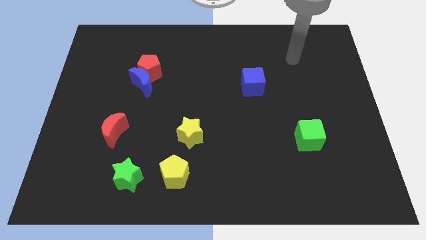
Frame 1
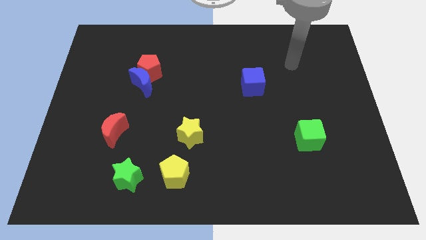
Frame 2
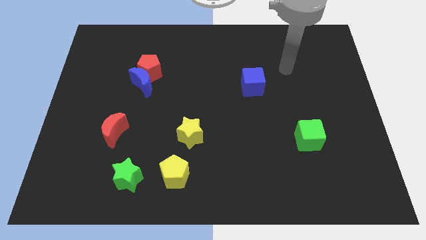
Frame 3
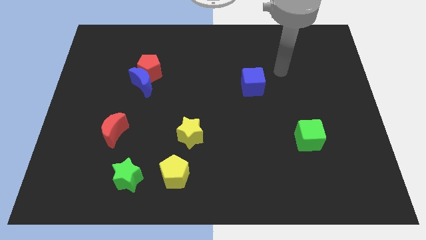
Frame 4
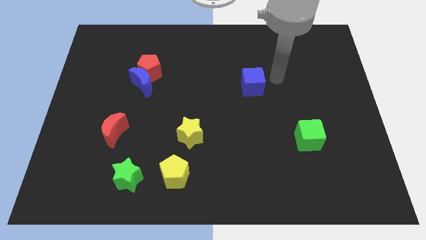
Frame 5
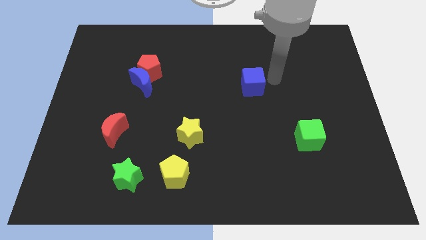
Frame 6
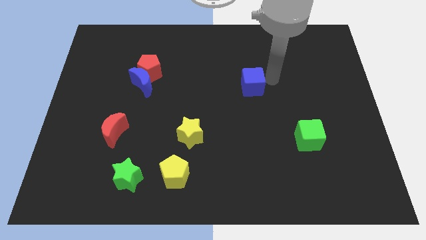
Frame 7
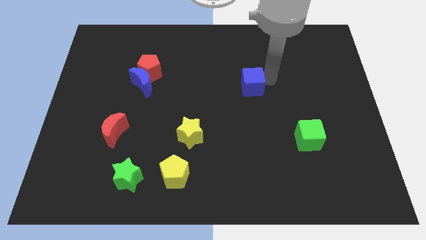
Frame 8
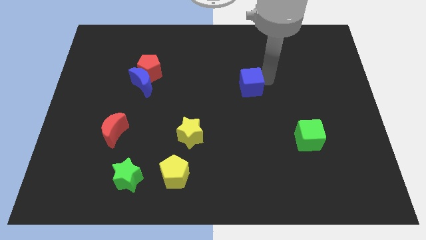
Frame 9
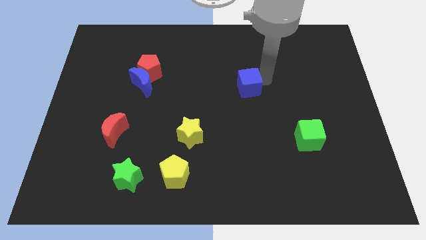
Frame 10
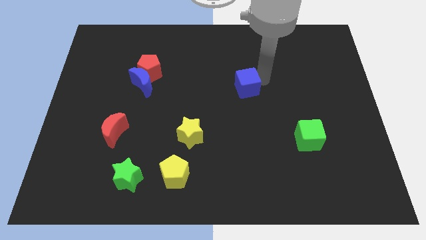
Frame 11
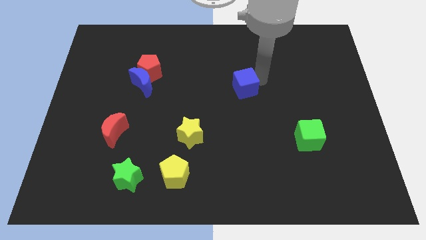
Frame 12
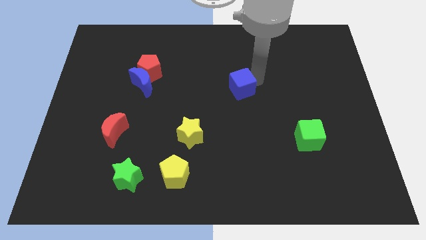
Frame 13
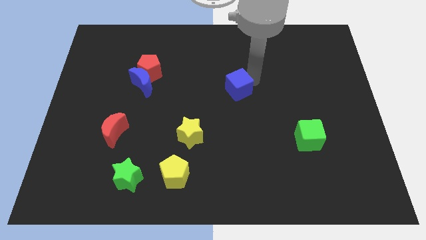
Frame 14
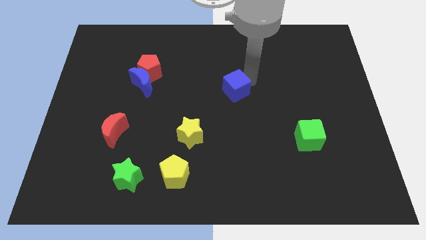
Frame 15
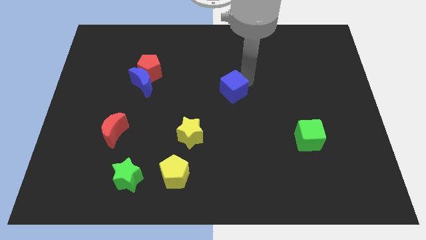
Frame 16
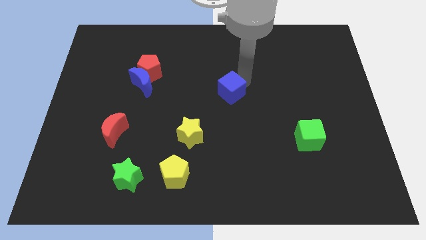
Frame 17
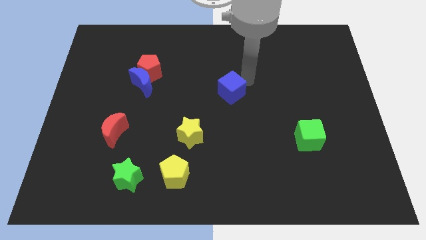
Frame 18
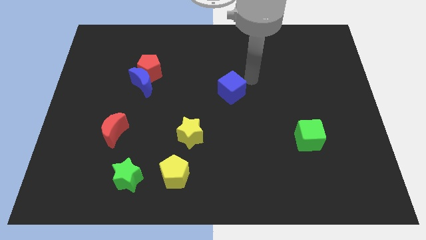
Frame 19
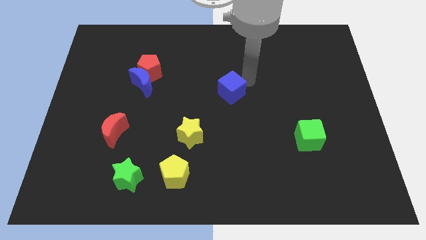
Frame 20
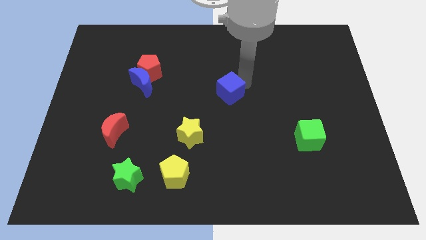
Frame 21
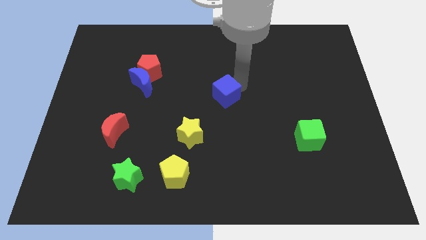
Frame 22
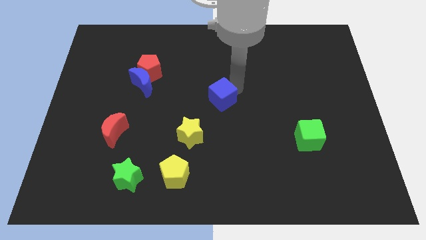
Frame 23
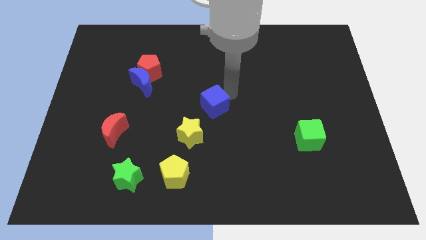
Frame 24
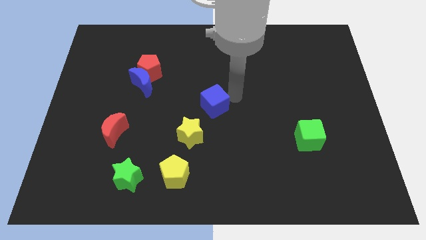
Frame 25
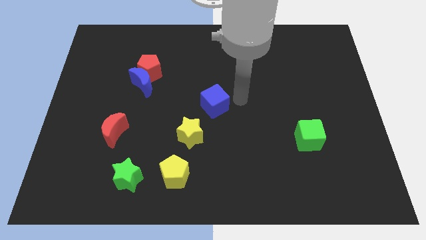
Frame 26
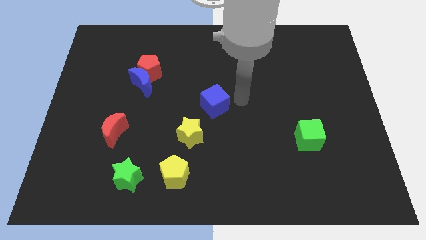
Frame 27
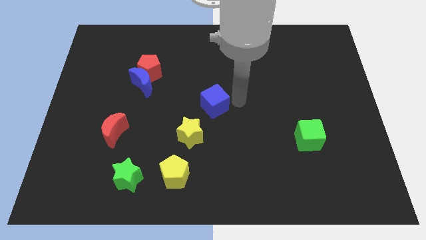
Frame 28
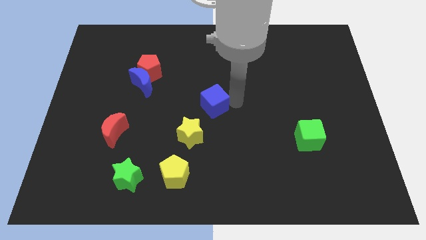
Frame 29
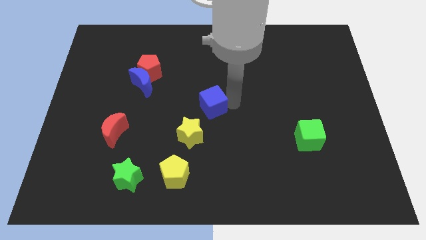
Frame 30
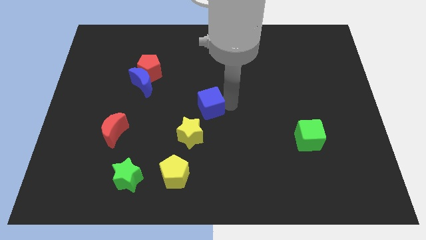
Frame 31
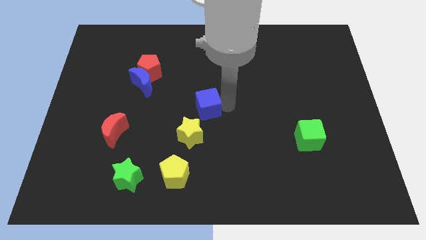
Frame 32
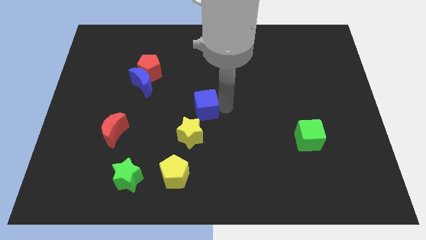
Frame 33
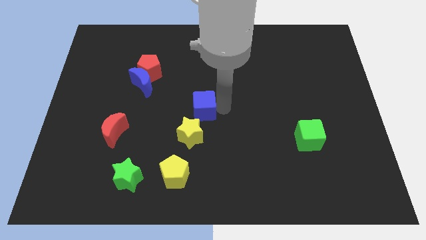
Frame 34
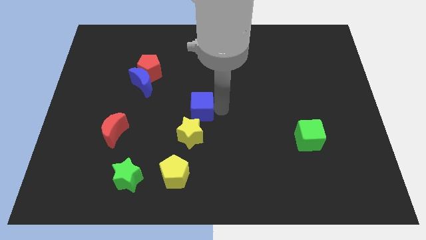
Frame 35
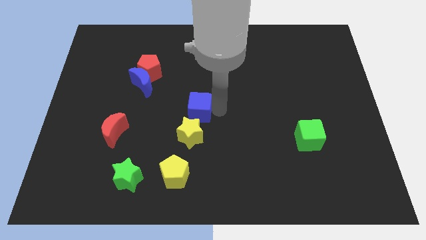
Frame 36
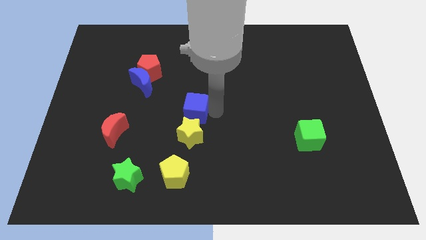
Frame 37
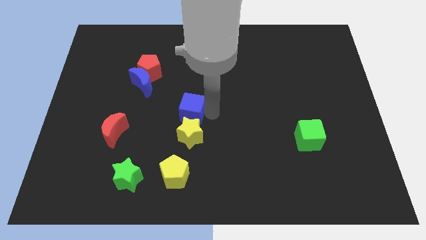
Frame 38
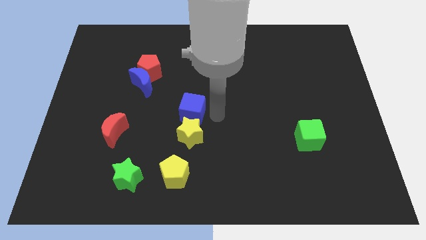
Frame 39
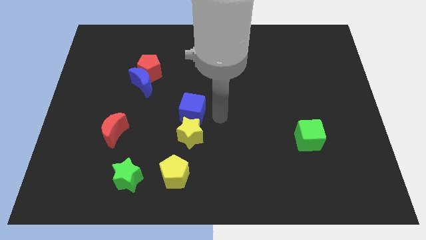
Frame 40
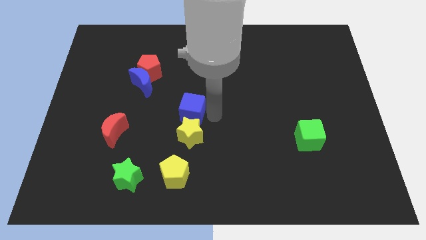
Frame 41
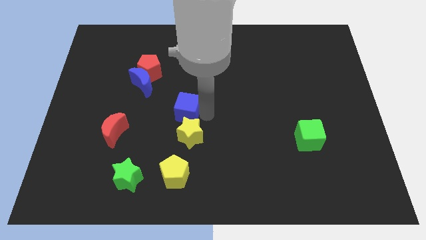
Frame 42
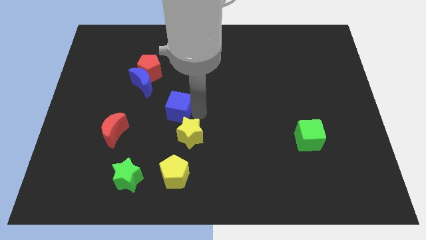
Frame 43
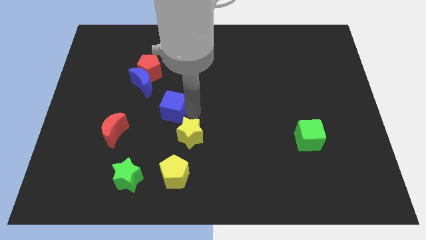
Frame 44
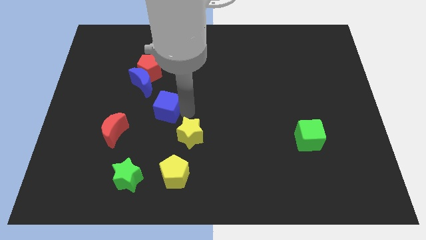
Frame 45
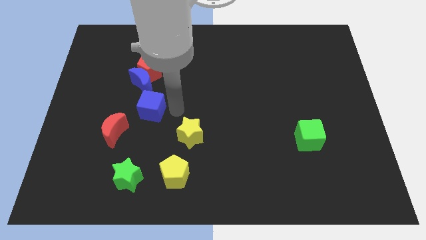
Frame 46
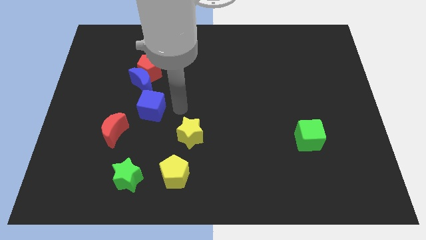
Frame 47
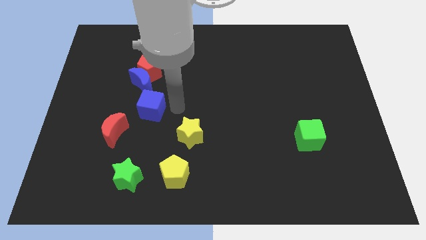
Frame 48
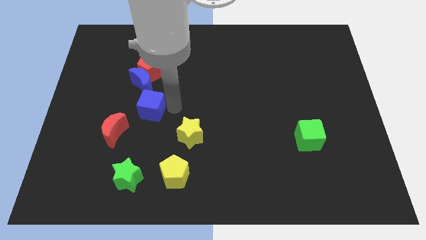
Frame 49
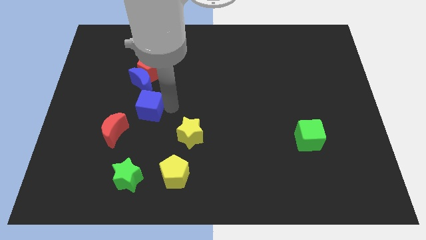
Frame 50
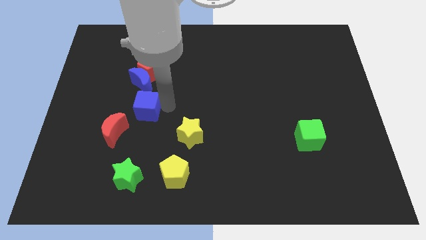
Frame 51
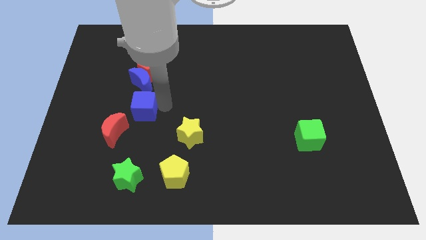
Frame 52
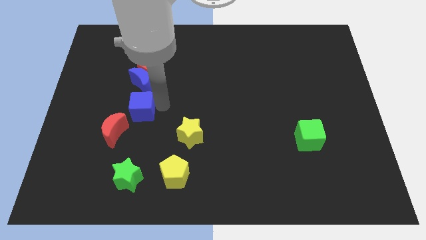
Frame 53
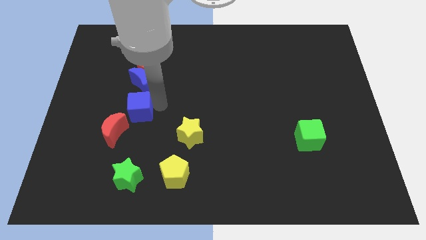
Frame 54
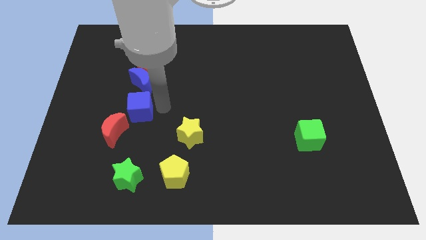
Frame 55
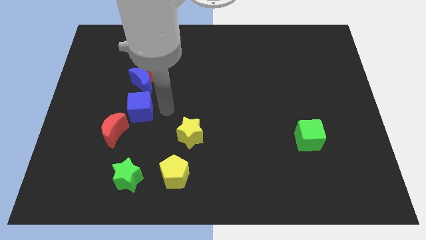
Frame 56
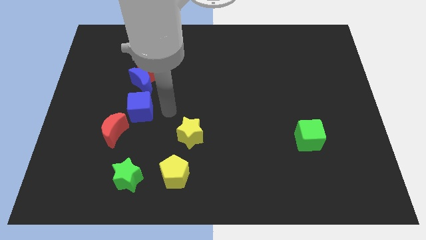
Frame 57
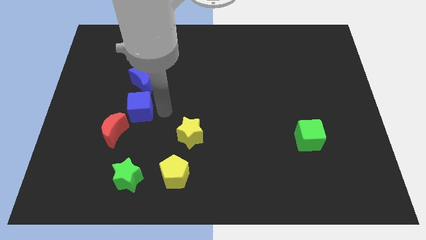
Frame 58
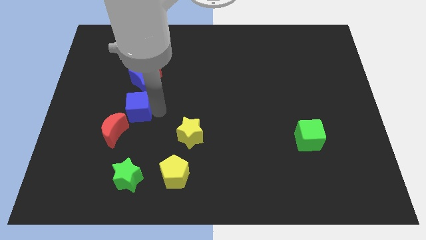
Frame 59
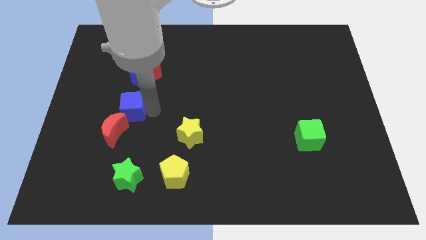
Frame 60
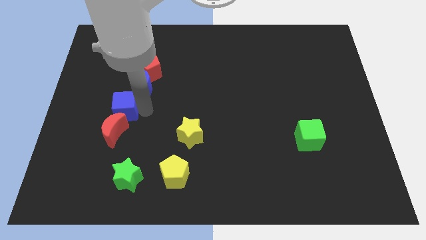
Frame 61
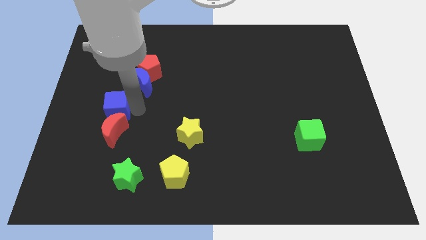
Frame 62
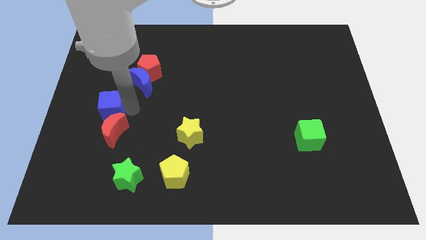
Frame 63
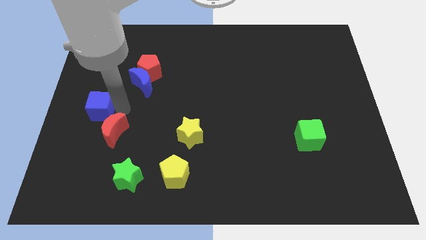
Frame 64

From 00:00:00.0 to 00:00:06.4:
push the blue cube to the left side of the board
